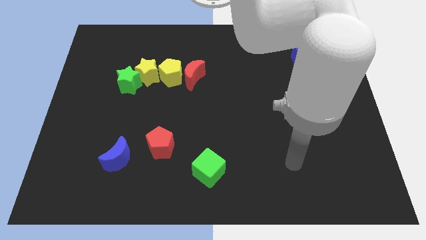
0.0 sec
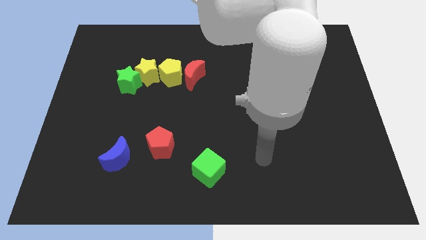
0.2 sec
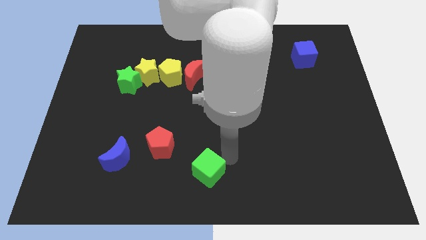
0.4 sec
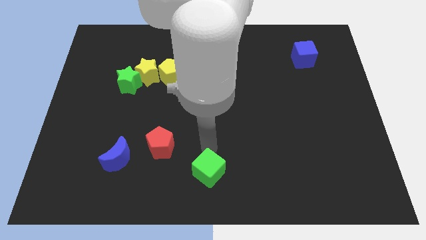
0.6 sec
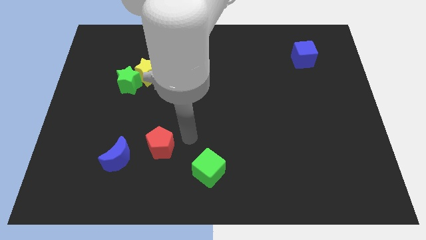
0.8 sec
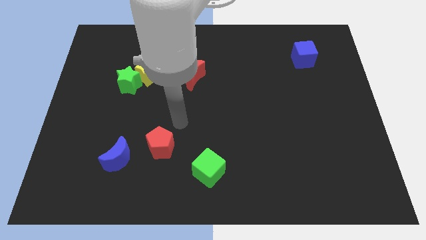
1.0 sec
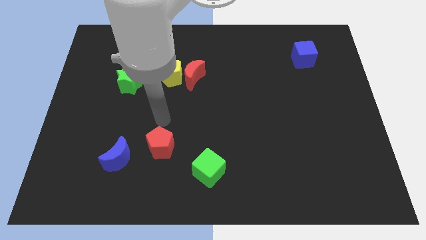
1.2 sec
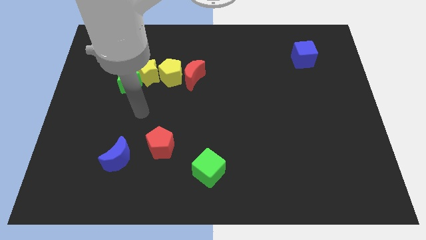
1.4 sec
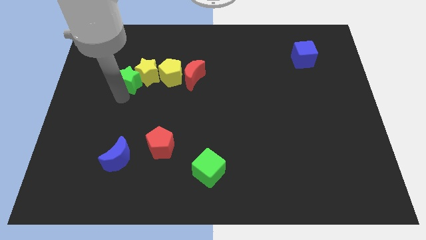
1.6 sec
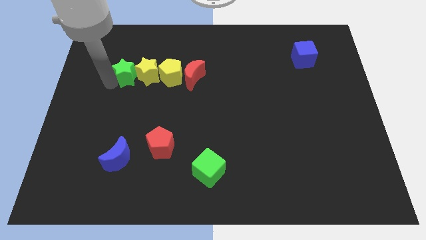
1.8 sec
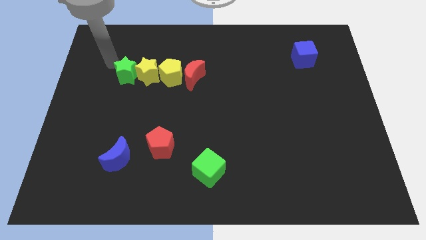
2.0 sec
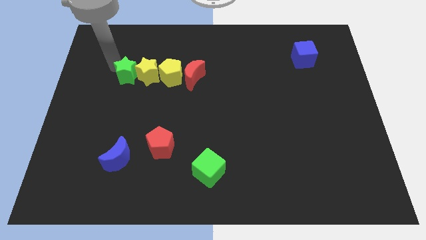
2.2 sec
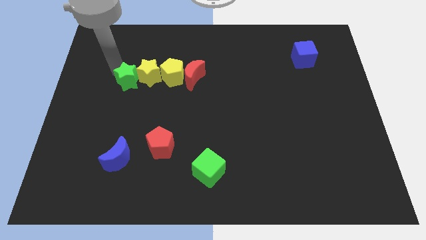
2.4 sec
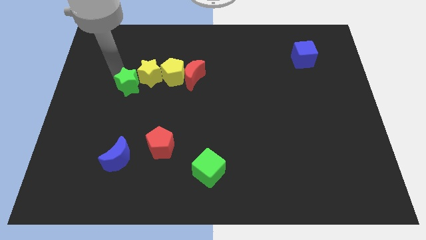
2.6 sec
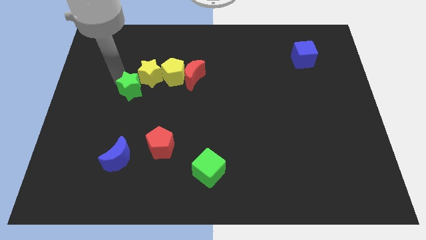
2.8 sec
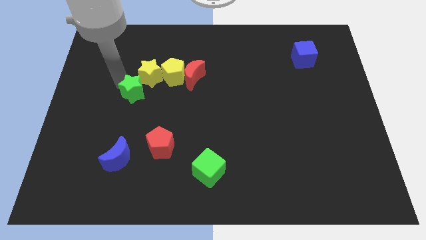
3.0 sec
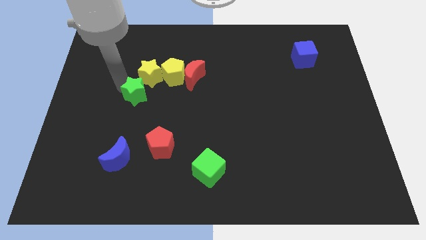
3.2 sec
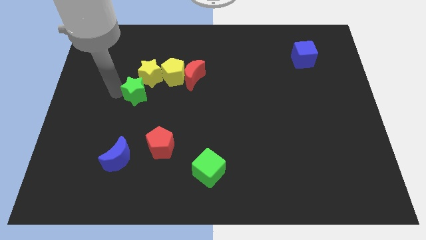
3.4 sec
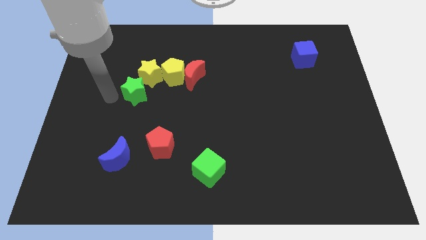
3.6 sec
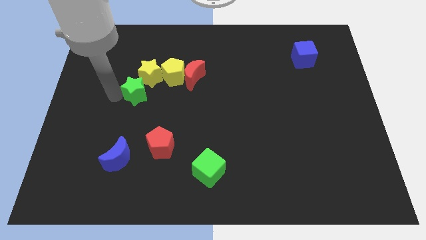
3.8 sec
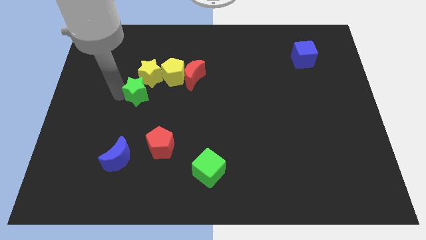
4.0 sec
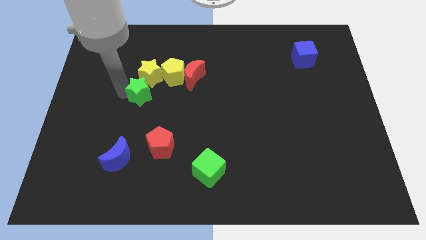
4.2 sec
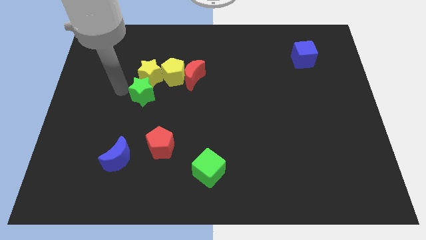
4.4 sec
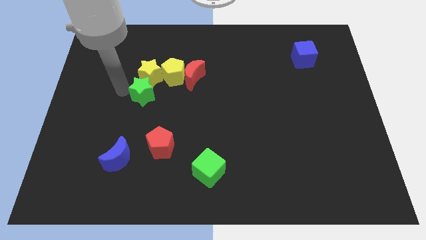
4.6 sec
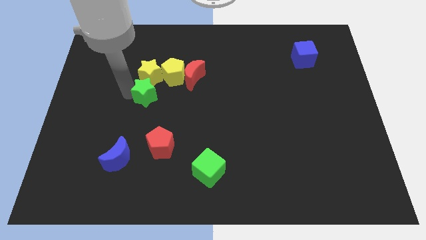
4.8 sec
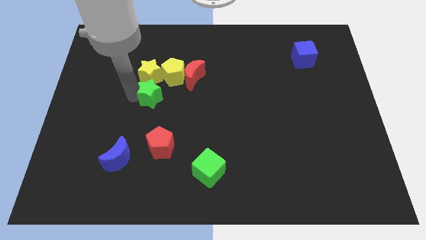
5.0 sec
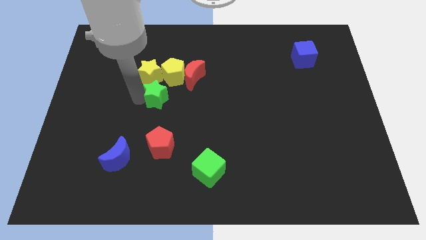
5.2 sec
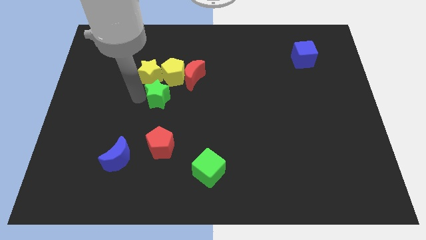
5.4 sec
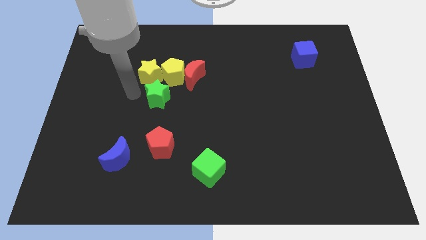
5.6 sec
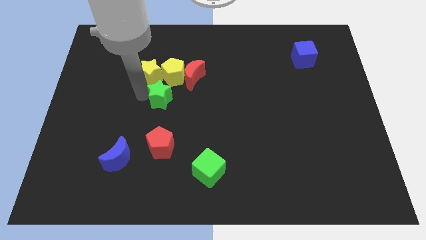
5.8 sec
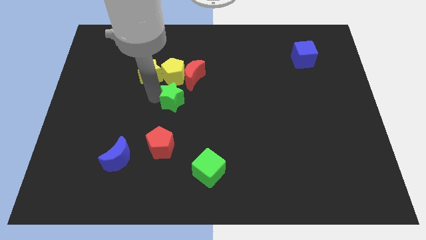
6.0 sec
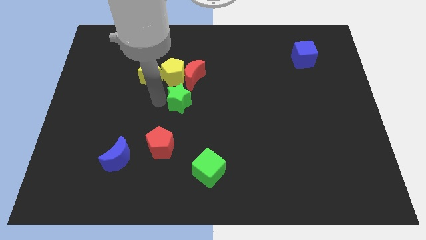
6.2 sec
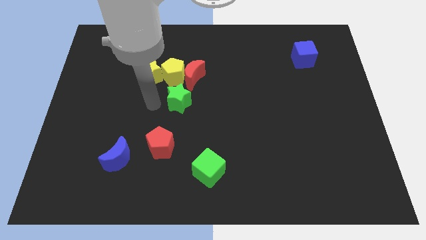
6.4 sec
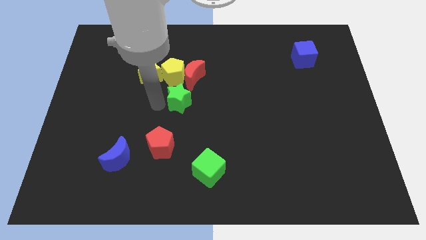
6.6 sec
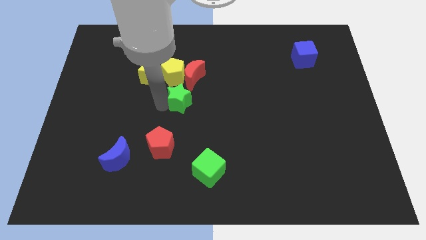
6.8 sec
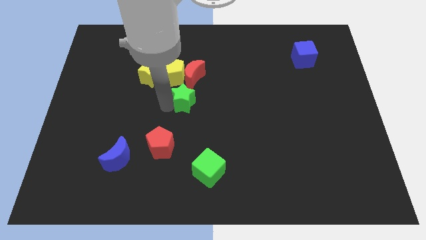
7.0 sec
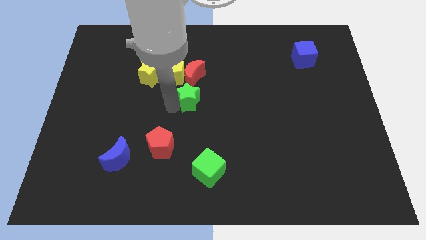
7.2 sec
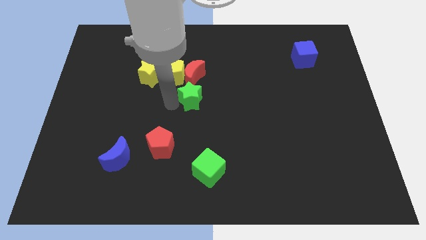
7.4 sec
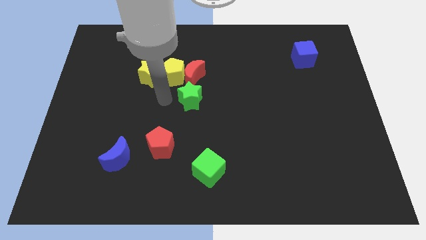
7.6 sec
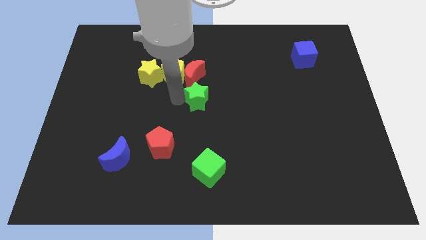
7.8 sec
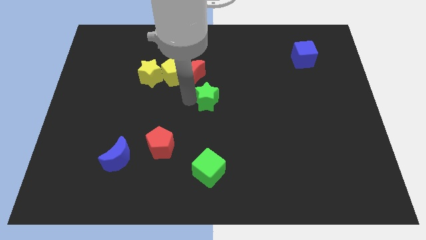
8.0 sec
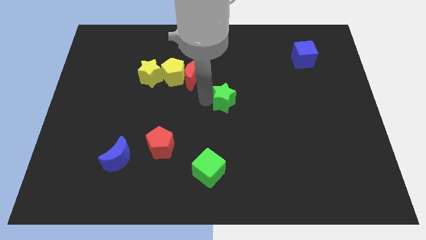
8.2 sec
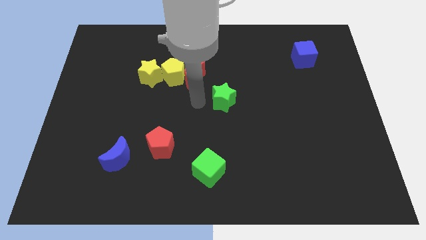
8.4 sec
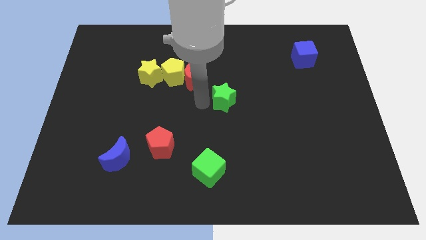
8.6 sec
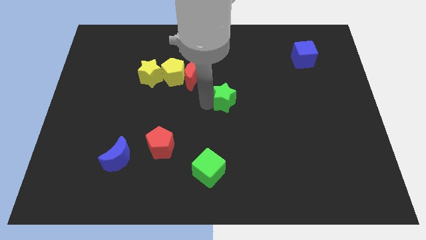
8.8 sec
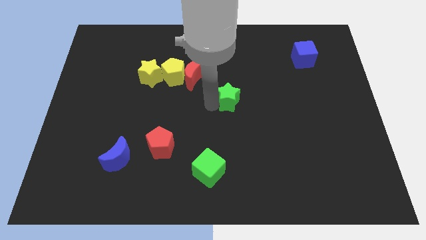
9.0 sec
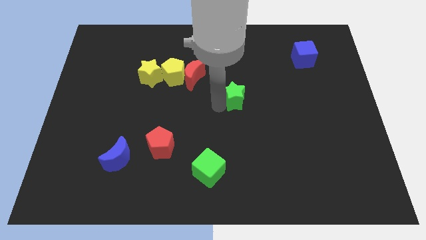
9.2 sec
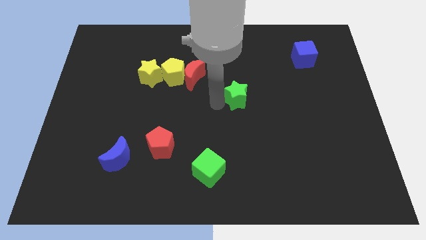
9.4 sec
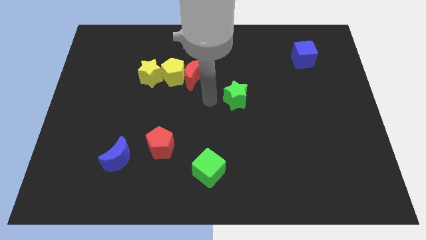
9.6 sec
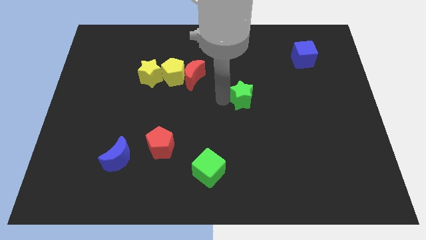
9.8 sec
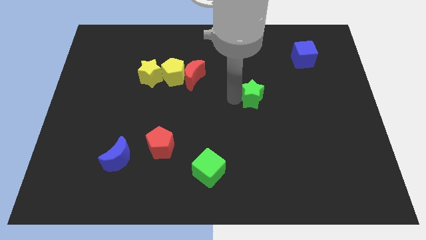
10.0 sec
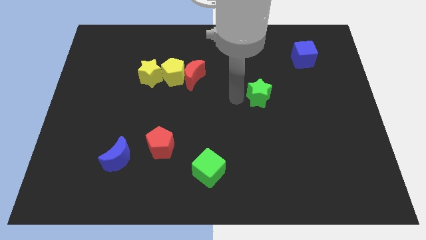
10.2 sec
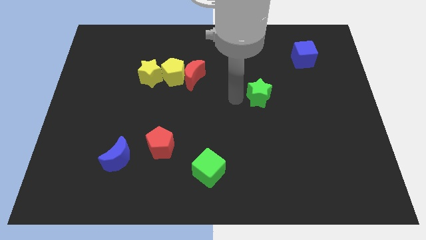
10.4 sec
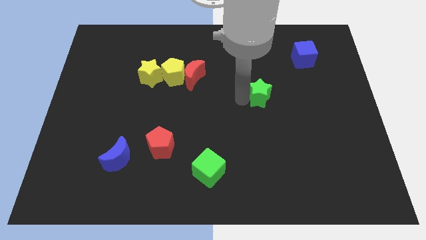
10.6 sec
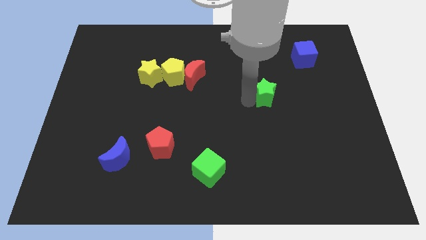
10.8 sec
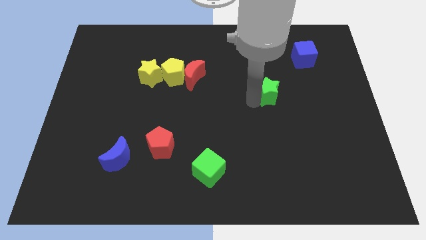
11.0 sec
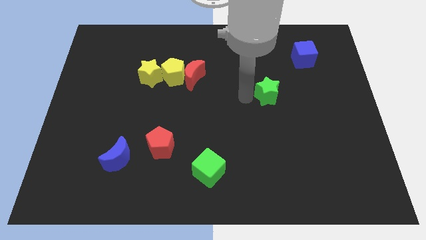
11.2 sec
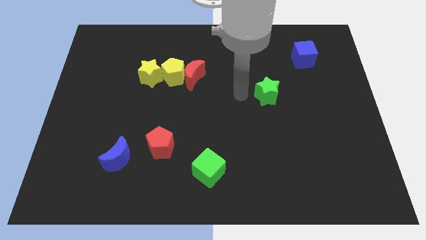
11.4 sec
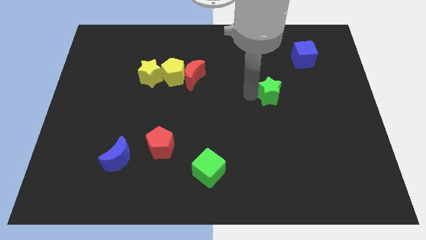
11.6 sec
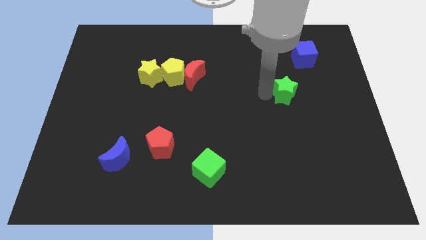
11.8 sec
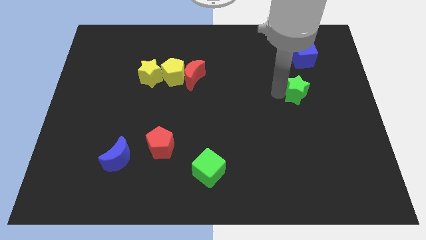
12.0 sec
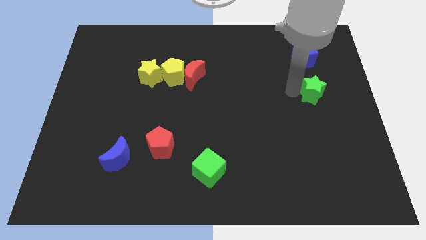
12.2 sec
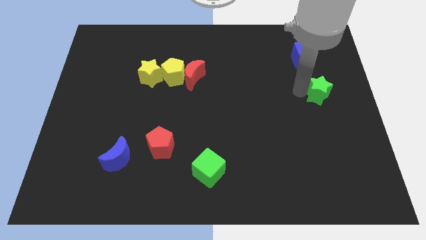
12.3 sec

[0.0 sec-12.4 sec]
push the green star to the center right
